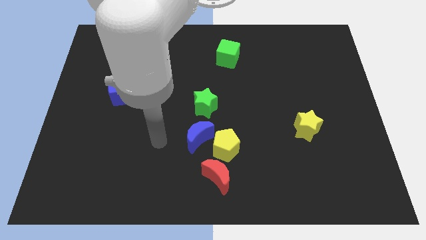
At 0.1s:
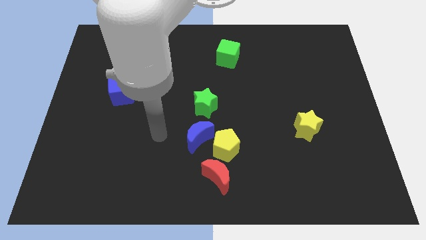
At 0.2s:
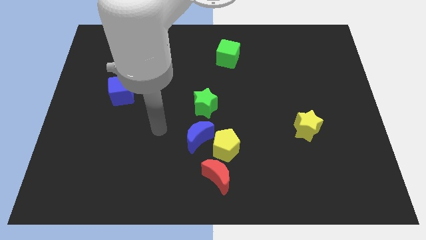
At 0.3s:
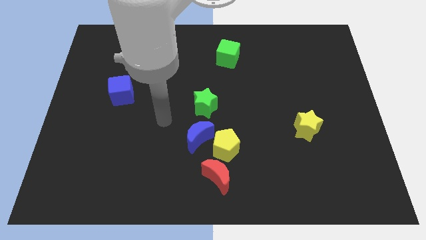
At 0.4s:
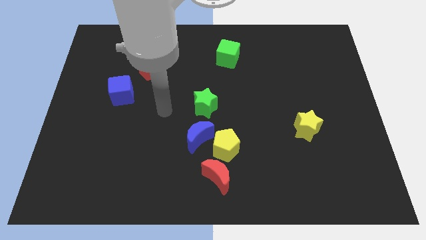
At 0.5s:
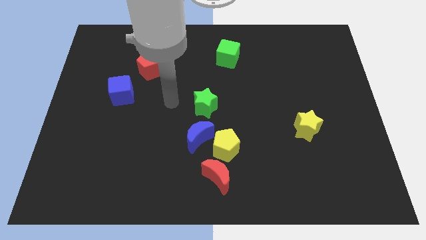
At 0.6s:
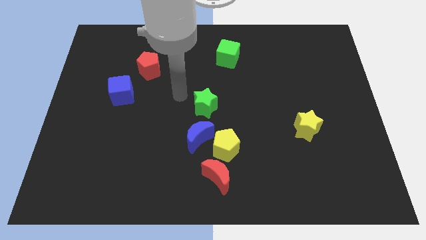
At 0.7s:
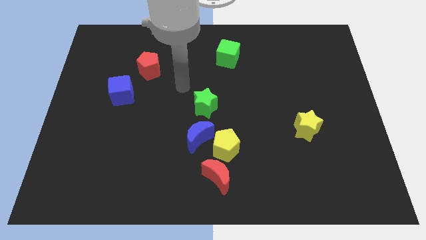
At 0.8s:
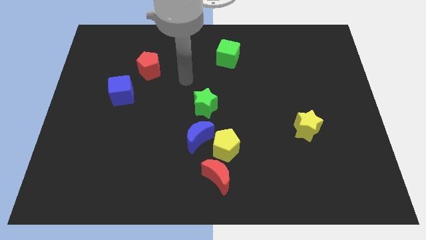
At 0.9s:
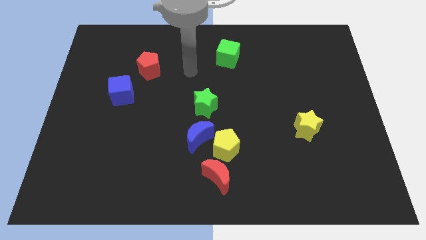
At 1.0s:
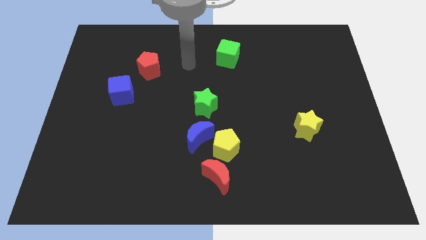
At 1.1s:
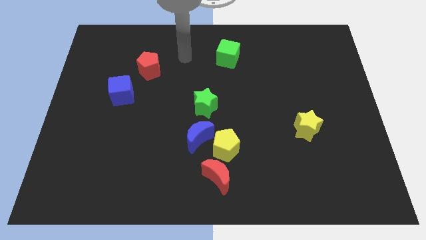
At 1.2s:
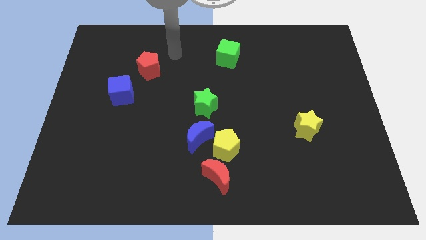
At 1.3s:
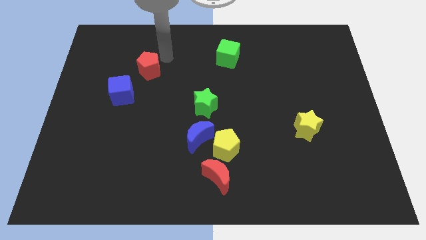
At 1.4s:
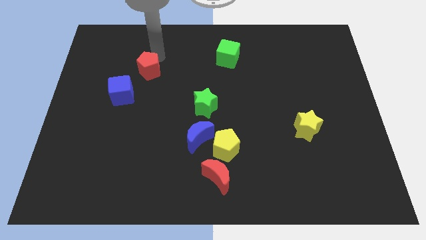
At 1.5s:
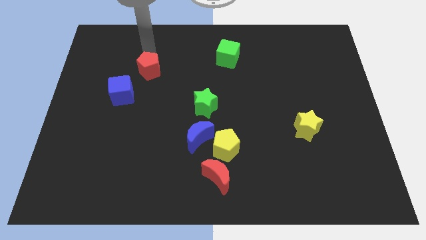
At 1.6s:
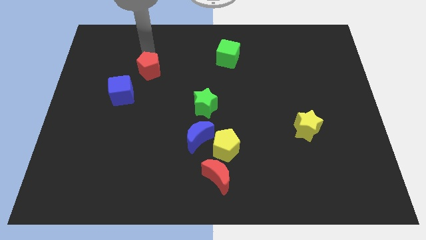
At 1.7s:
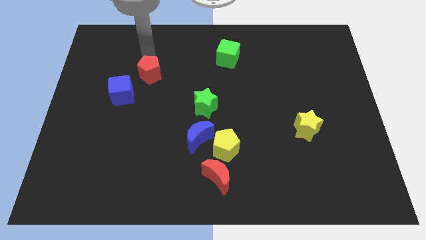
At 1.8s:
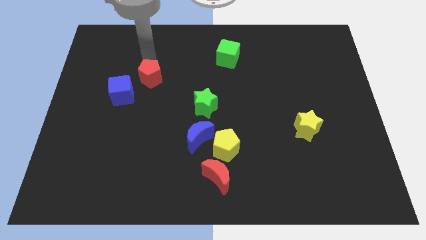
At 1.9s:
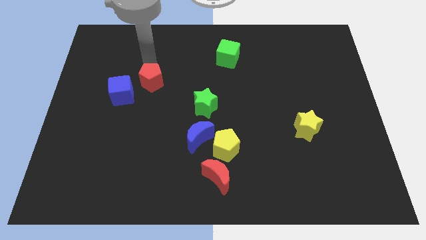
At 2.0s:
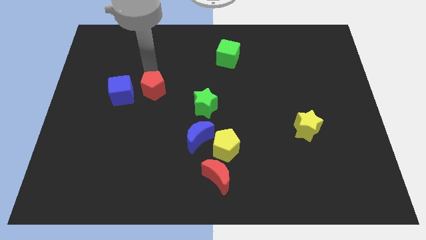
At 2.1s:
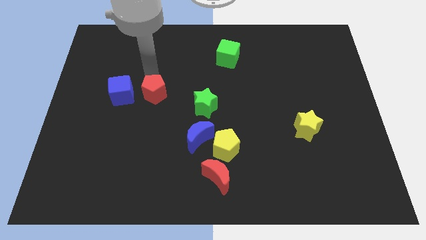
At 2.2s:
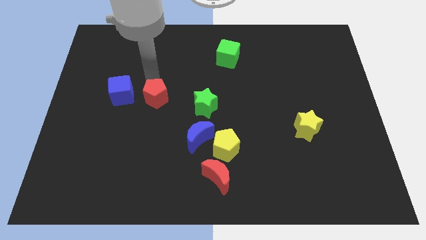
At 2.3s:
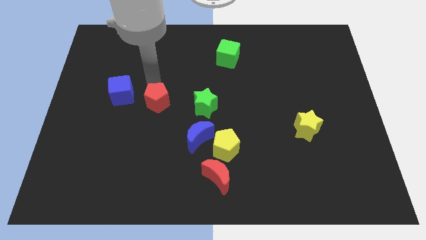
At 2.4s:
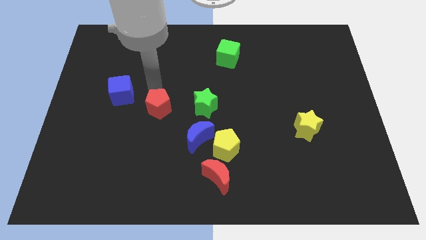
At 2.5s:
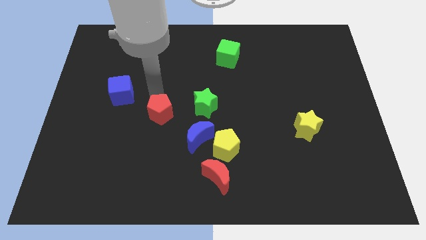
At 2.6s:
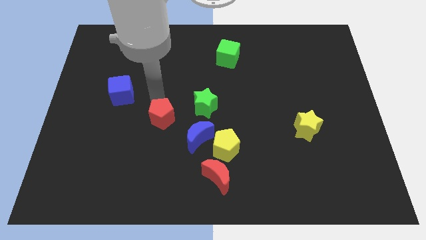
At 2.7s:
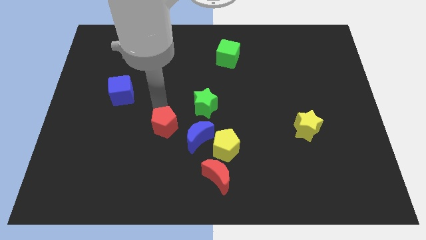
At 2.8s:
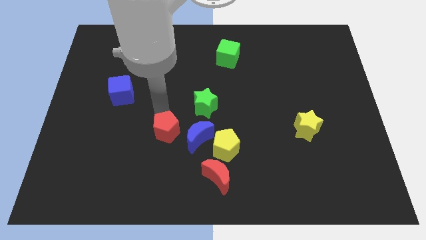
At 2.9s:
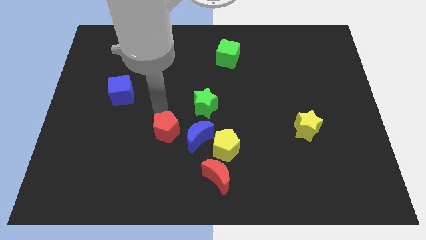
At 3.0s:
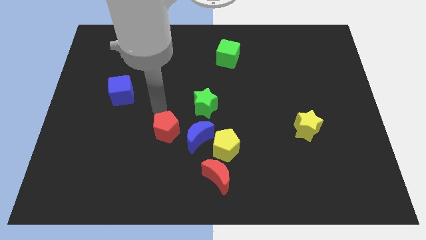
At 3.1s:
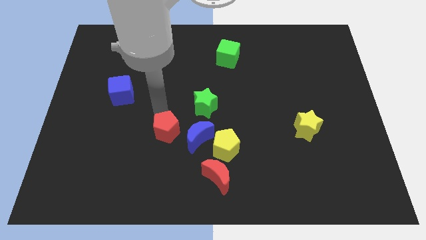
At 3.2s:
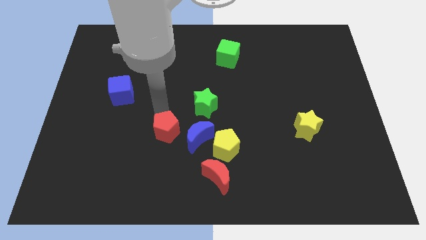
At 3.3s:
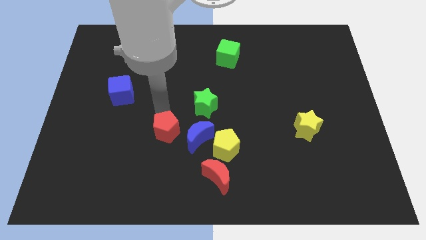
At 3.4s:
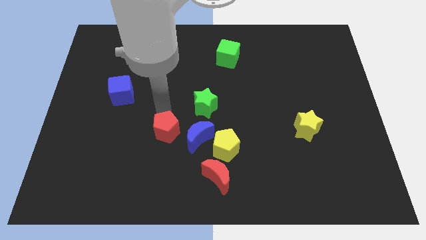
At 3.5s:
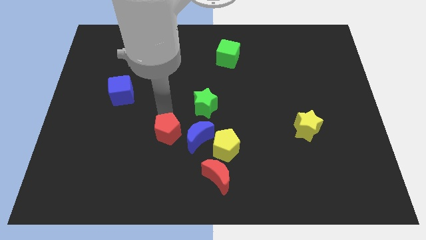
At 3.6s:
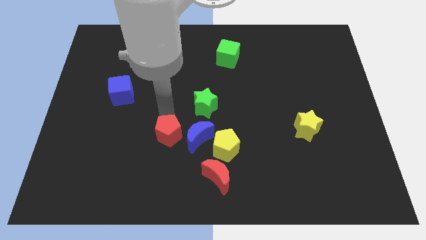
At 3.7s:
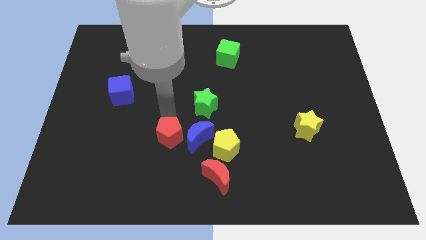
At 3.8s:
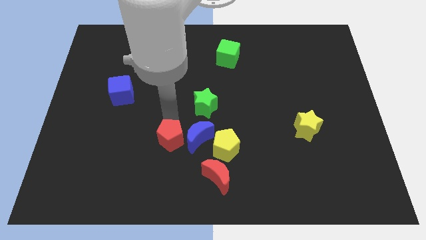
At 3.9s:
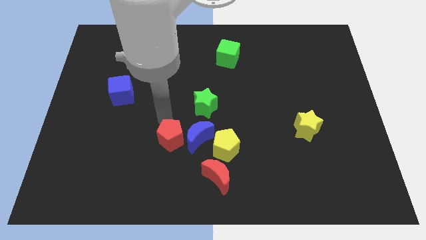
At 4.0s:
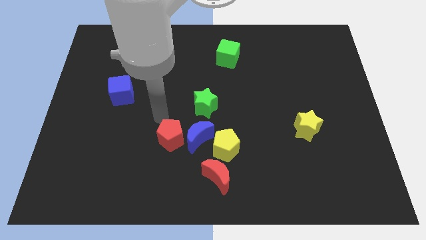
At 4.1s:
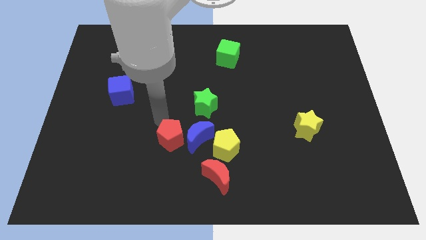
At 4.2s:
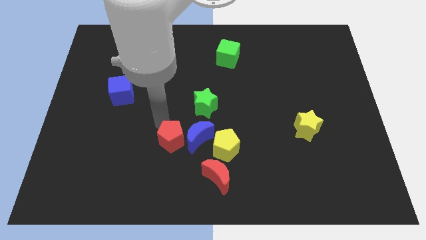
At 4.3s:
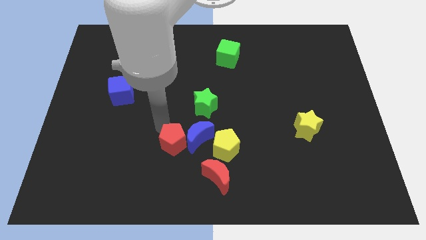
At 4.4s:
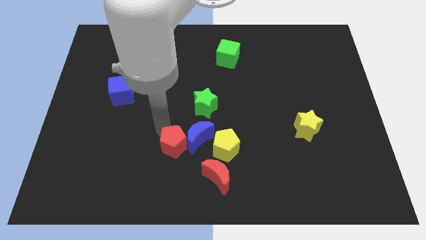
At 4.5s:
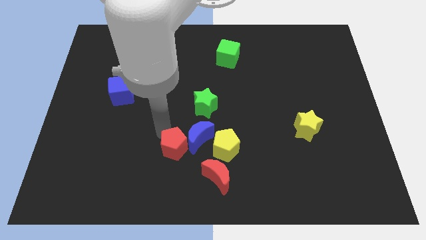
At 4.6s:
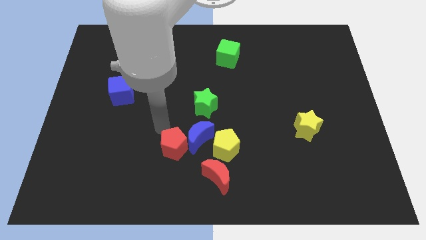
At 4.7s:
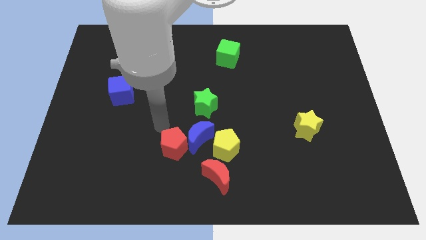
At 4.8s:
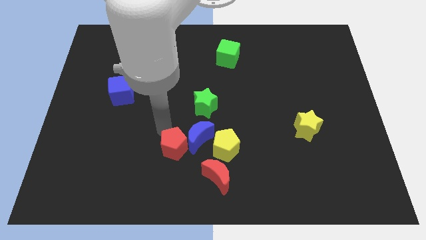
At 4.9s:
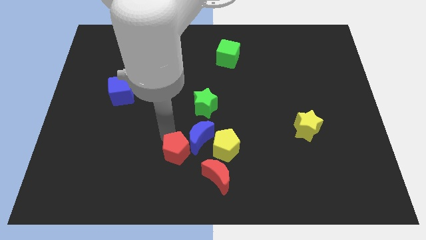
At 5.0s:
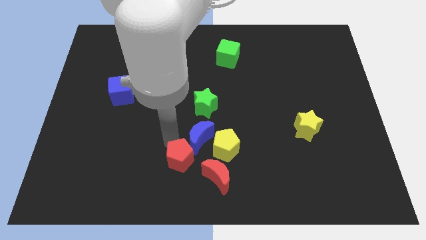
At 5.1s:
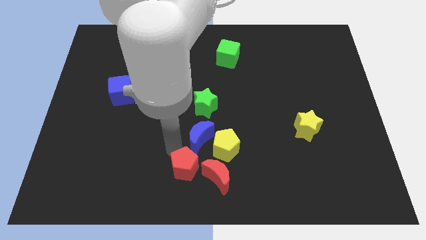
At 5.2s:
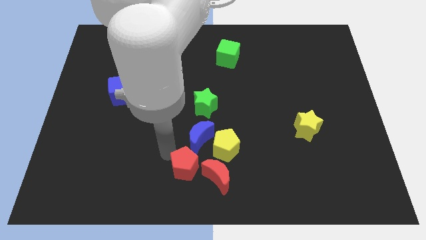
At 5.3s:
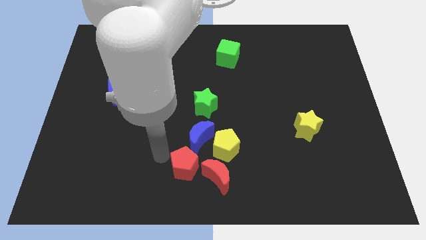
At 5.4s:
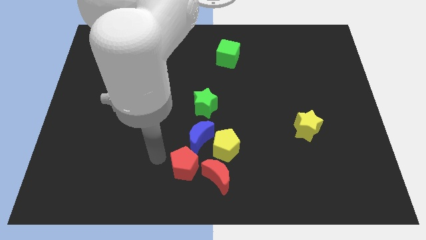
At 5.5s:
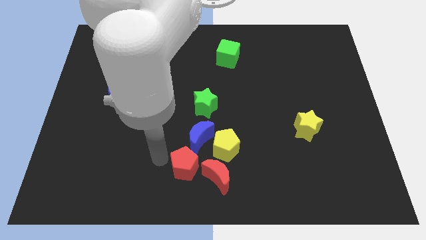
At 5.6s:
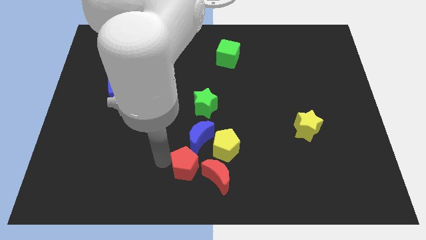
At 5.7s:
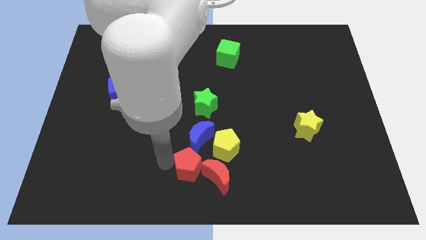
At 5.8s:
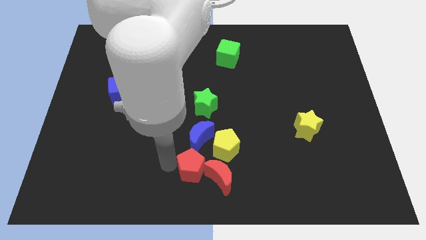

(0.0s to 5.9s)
slide the red pentagon towards the red moon

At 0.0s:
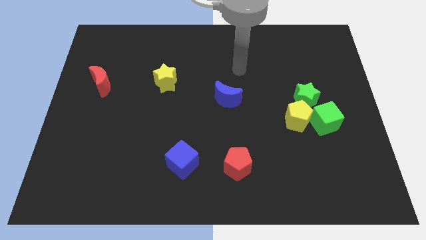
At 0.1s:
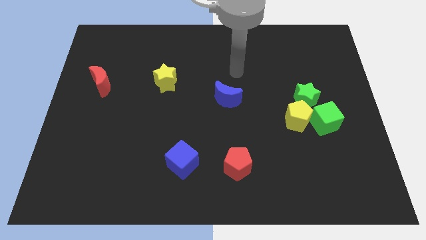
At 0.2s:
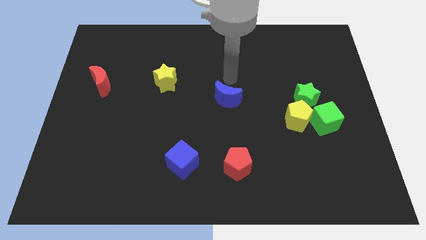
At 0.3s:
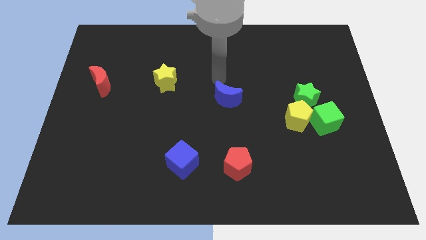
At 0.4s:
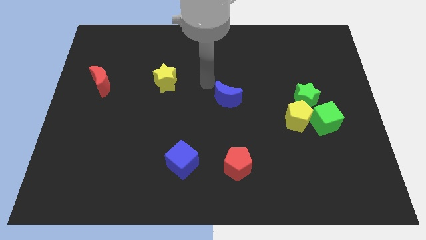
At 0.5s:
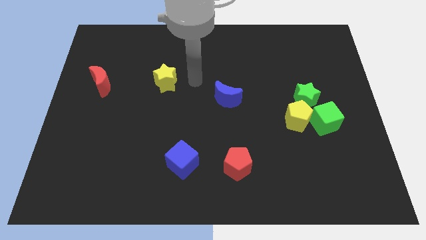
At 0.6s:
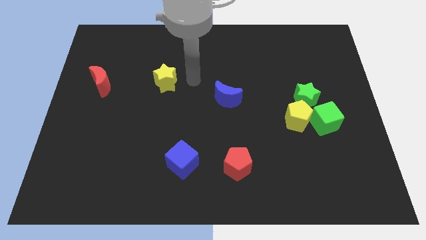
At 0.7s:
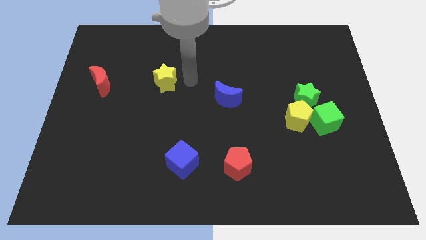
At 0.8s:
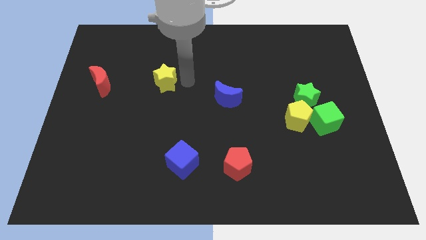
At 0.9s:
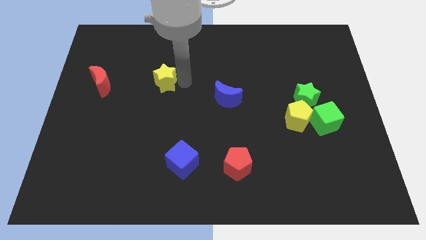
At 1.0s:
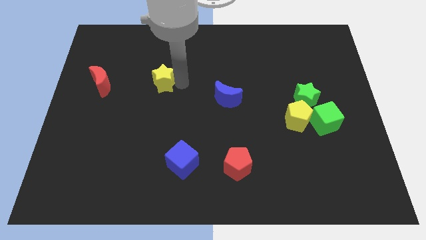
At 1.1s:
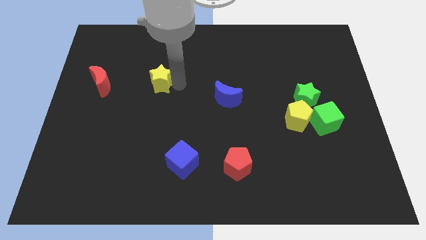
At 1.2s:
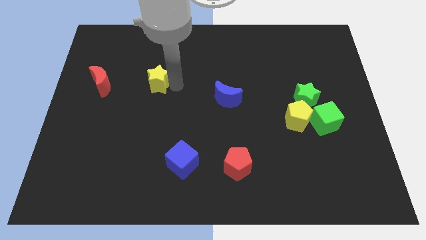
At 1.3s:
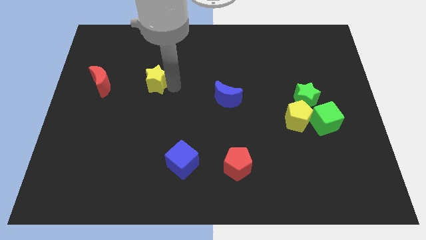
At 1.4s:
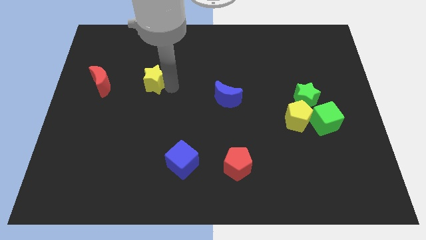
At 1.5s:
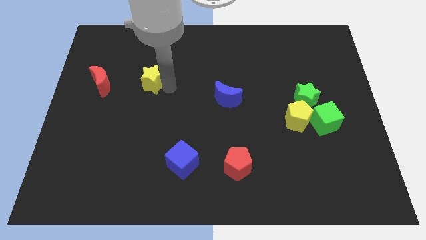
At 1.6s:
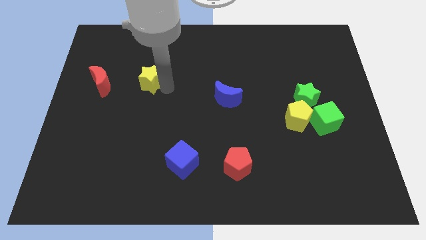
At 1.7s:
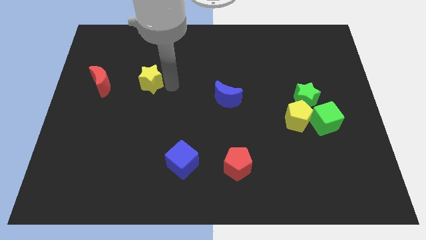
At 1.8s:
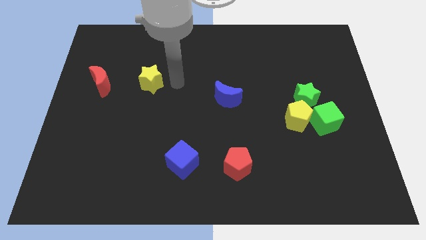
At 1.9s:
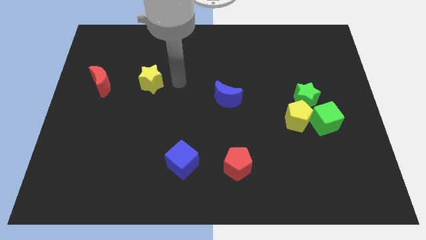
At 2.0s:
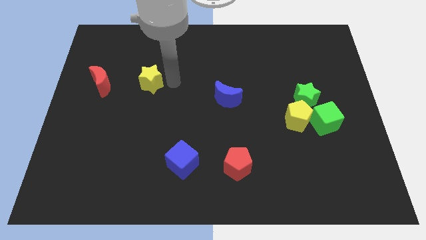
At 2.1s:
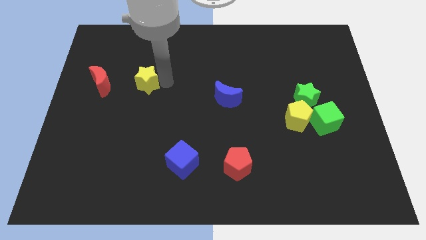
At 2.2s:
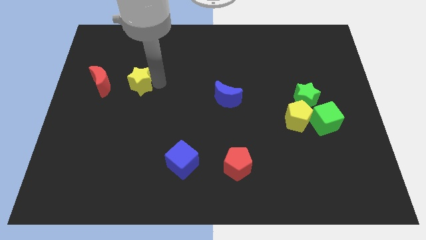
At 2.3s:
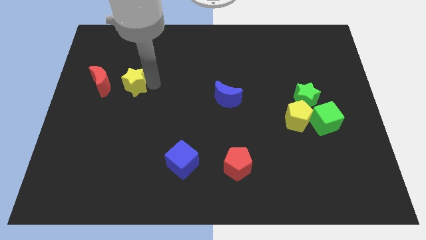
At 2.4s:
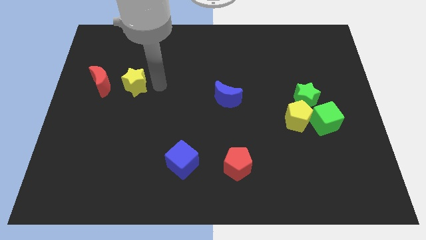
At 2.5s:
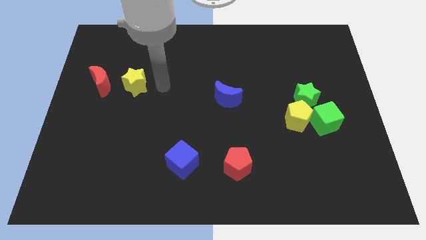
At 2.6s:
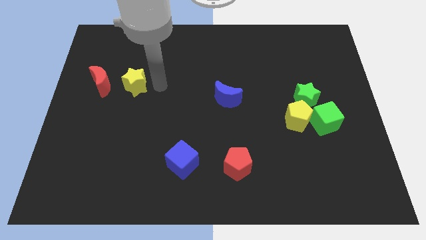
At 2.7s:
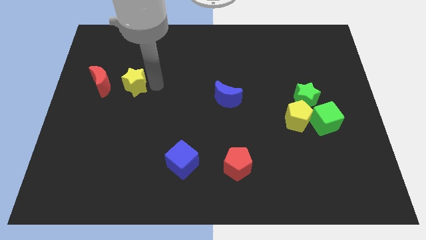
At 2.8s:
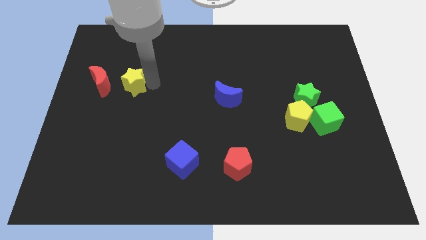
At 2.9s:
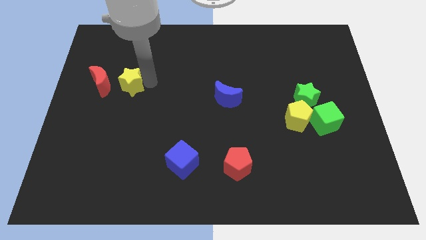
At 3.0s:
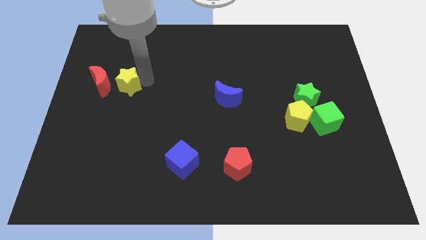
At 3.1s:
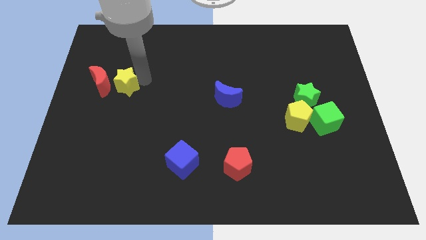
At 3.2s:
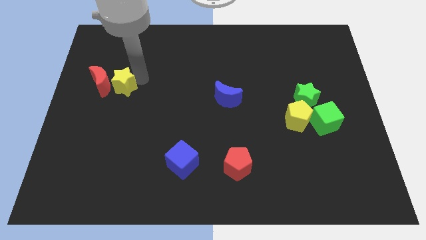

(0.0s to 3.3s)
push the yellow star close to the red moon
